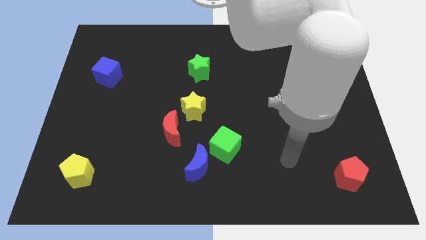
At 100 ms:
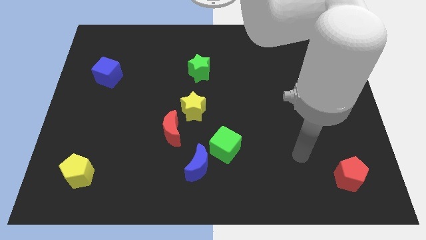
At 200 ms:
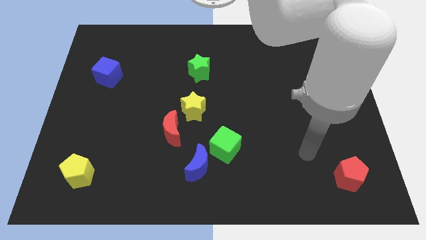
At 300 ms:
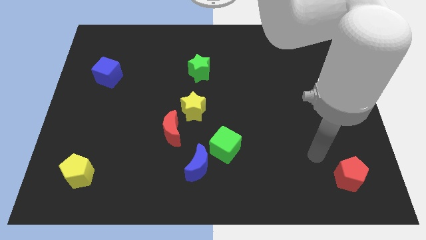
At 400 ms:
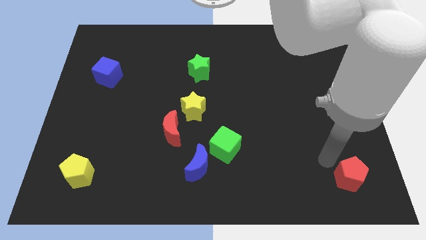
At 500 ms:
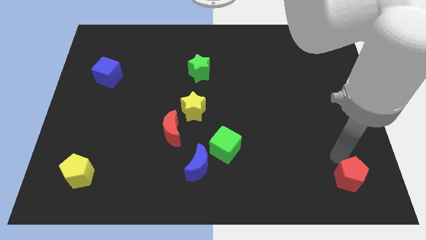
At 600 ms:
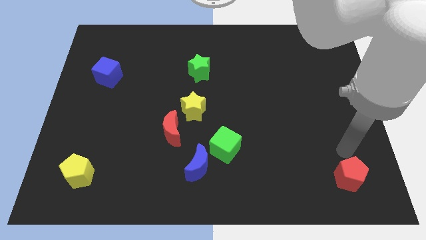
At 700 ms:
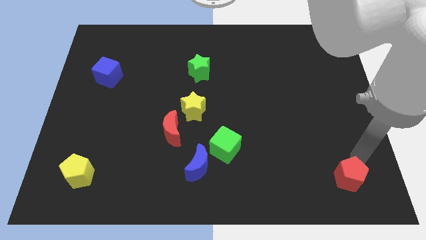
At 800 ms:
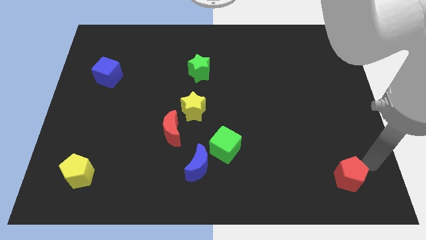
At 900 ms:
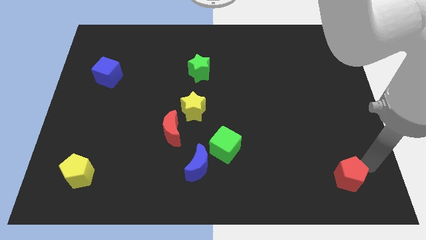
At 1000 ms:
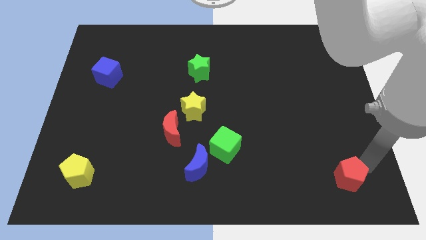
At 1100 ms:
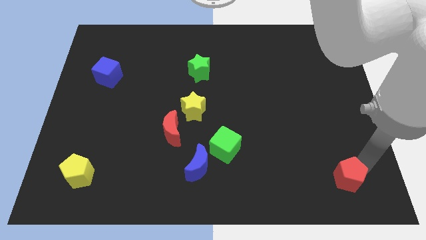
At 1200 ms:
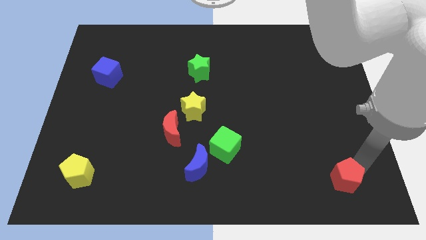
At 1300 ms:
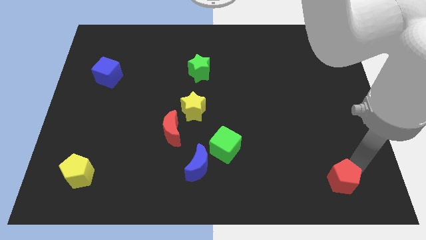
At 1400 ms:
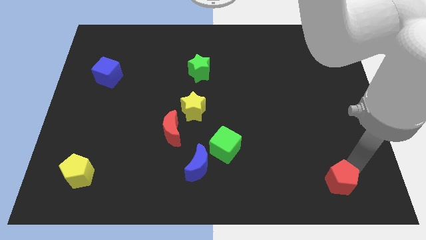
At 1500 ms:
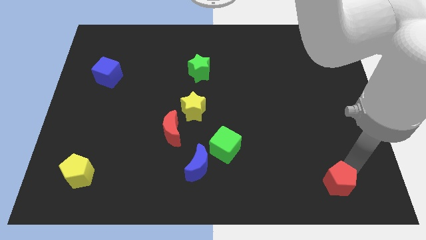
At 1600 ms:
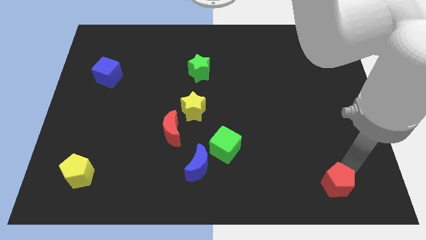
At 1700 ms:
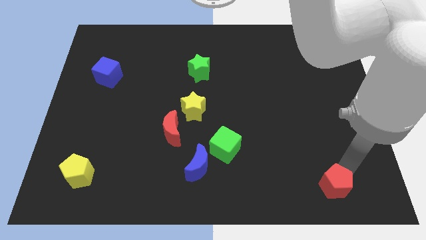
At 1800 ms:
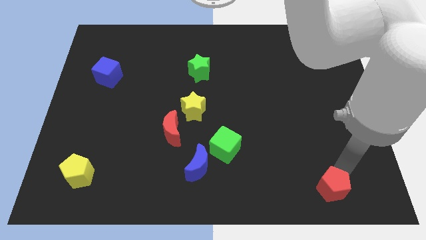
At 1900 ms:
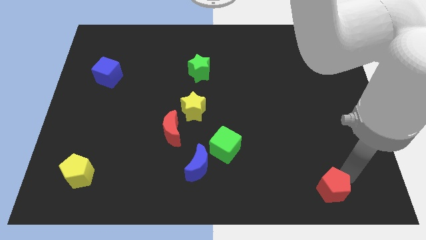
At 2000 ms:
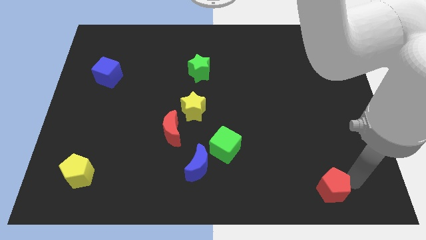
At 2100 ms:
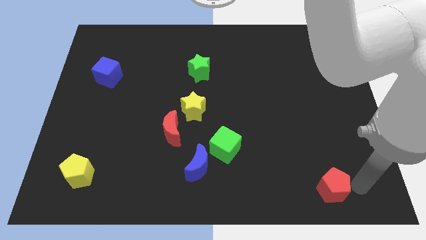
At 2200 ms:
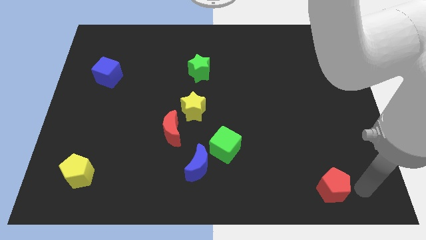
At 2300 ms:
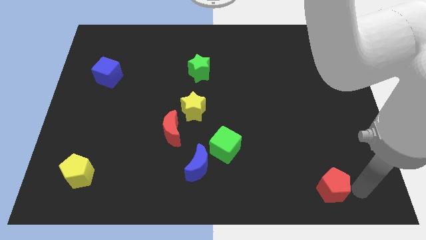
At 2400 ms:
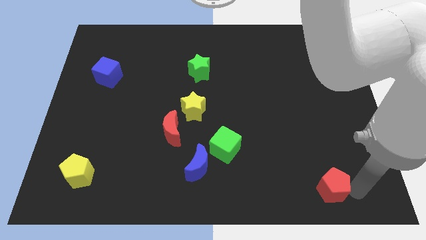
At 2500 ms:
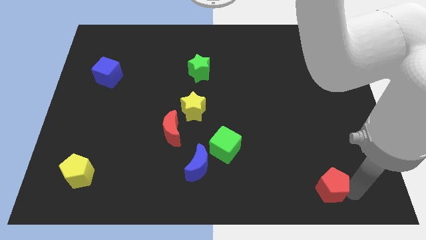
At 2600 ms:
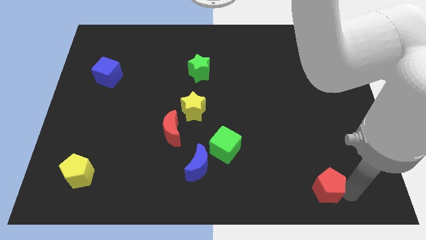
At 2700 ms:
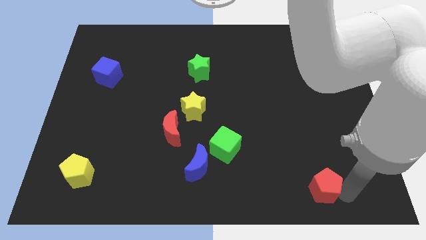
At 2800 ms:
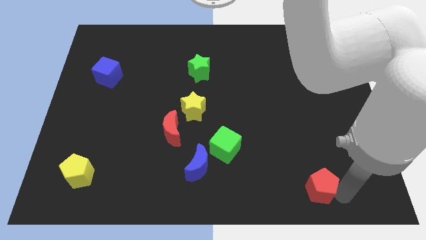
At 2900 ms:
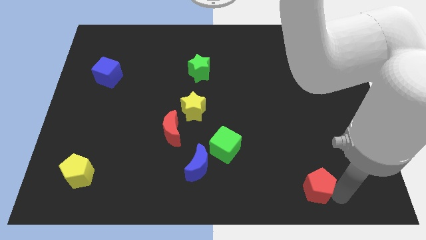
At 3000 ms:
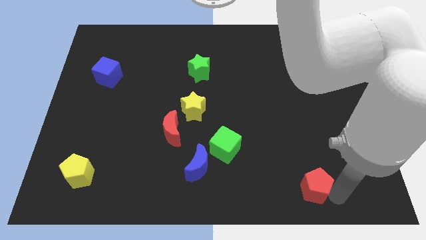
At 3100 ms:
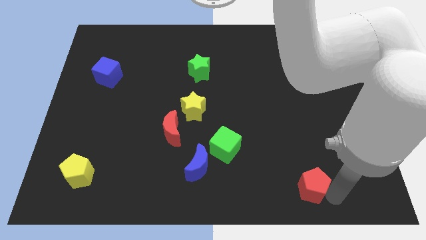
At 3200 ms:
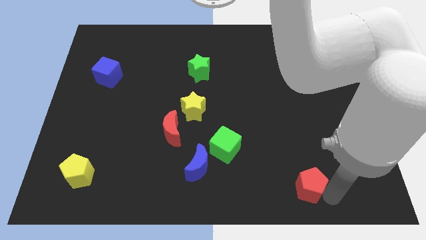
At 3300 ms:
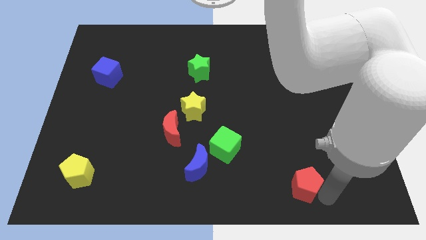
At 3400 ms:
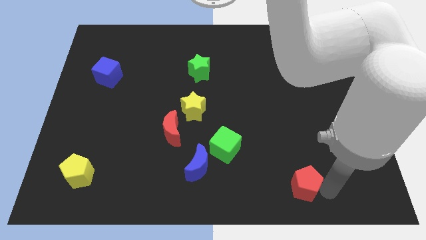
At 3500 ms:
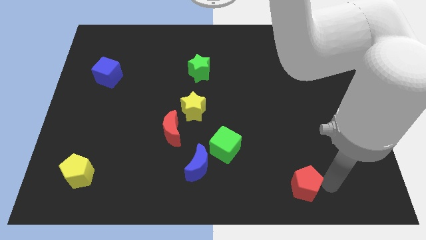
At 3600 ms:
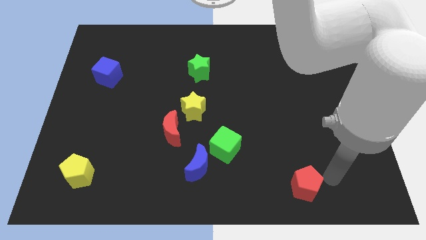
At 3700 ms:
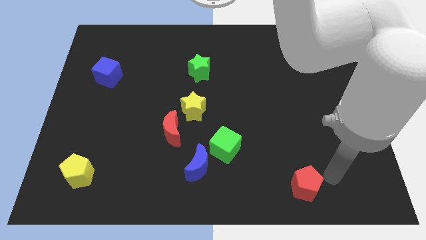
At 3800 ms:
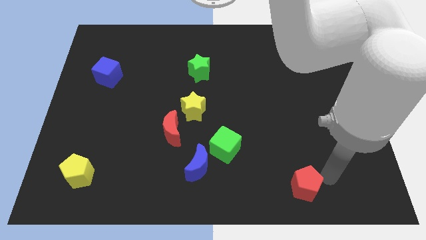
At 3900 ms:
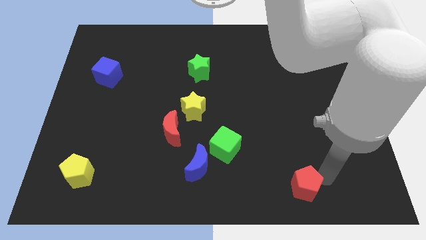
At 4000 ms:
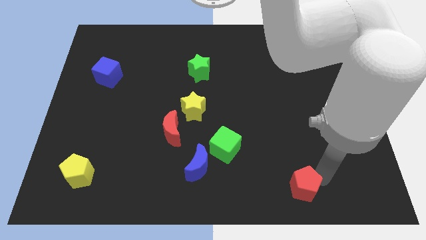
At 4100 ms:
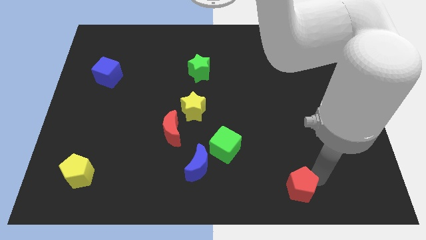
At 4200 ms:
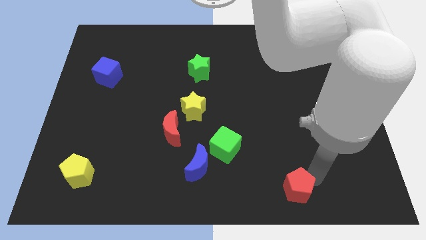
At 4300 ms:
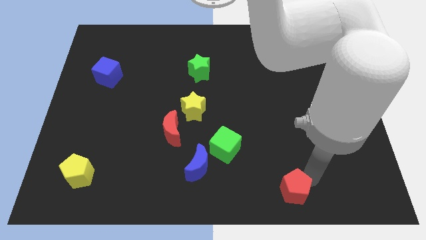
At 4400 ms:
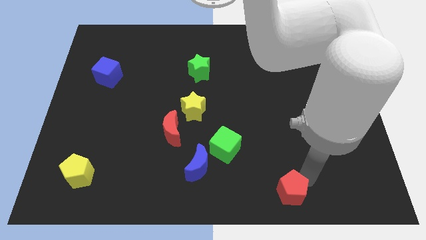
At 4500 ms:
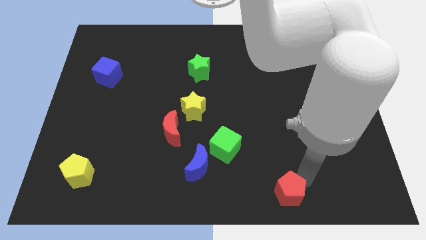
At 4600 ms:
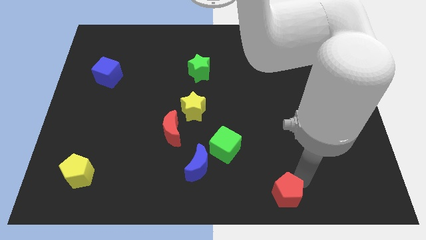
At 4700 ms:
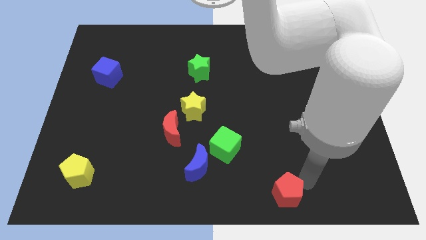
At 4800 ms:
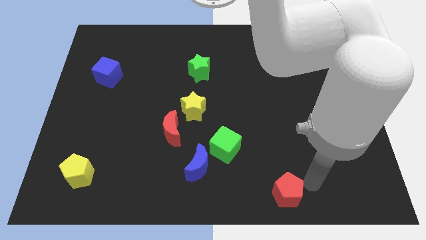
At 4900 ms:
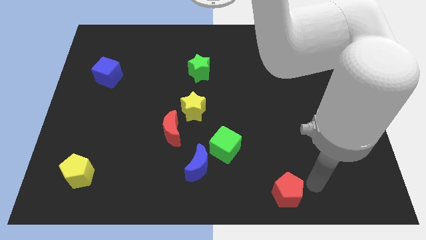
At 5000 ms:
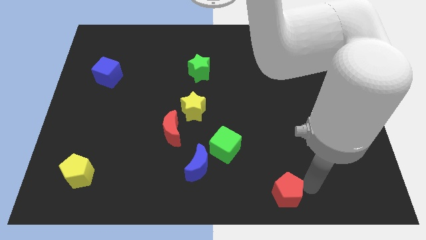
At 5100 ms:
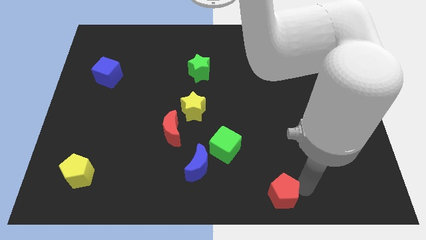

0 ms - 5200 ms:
put the red pentagon to the bottom

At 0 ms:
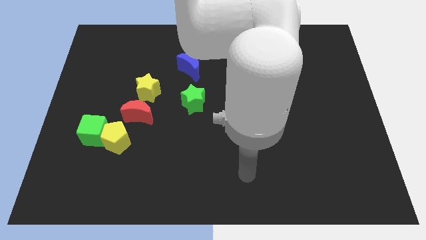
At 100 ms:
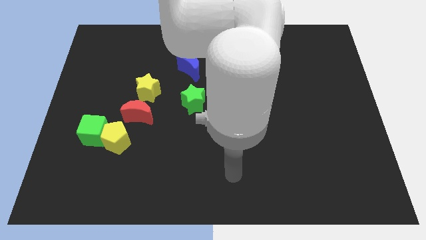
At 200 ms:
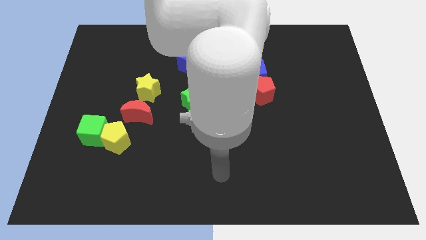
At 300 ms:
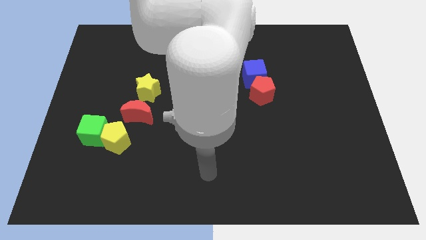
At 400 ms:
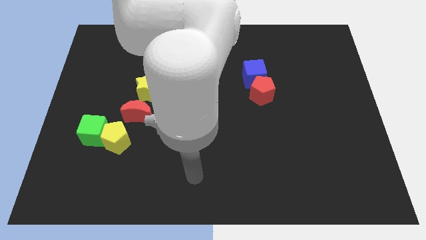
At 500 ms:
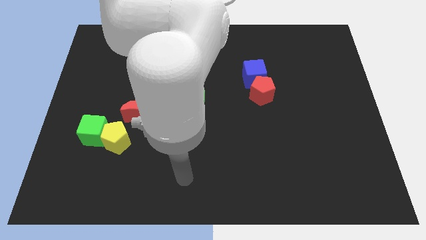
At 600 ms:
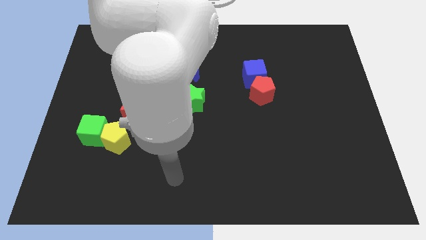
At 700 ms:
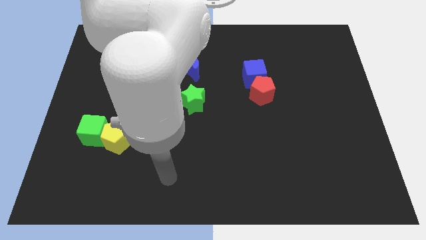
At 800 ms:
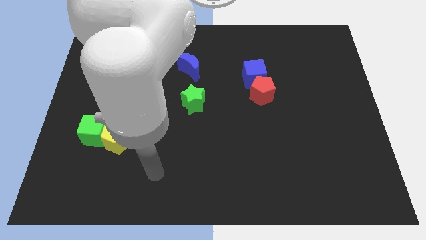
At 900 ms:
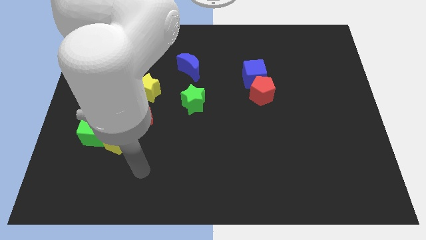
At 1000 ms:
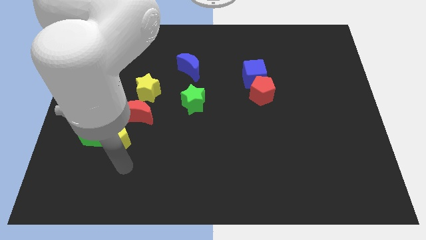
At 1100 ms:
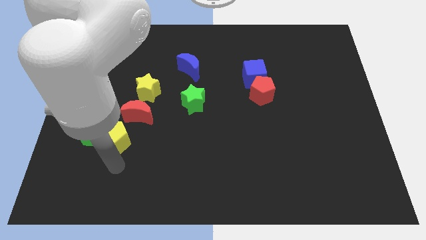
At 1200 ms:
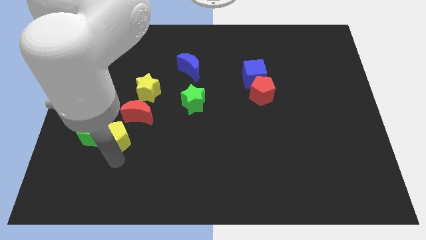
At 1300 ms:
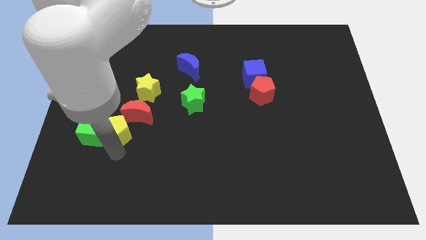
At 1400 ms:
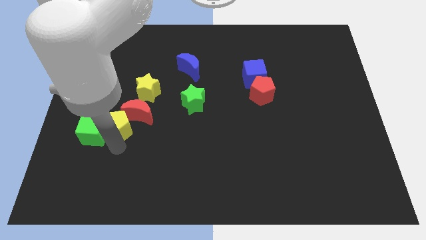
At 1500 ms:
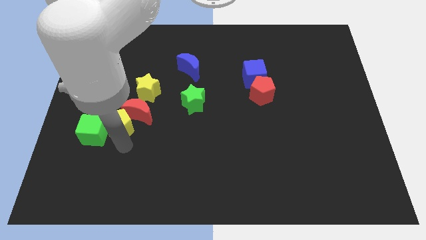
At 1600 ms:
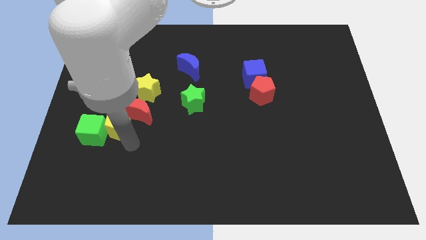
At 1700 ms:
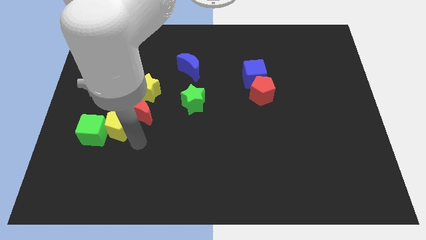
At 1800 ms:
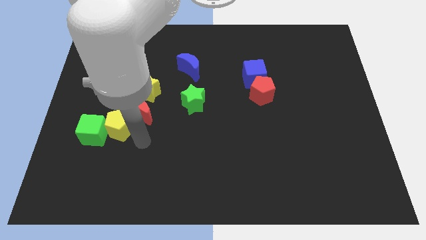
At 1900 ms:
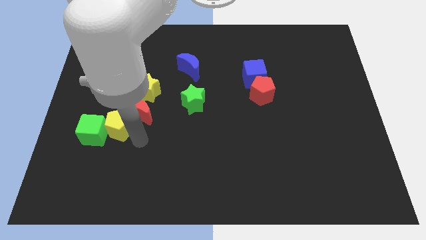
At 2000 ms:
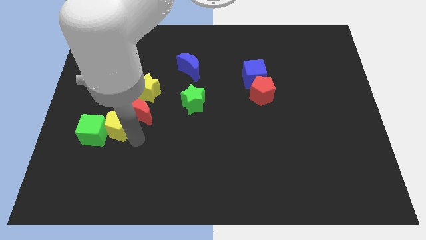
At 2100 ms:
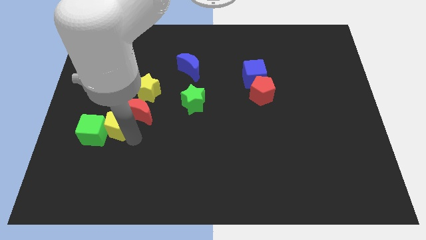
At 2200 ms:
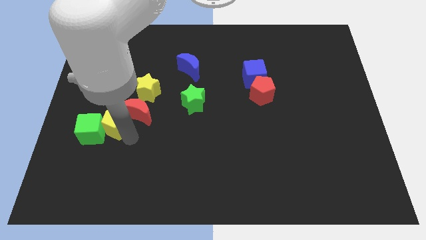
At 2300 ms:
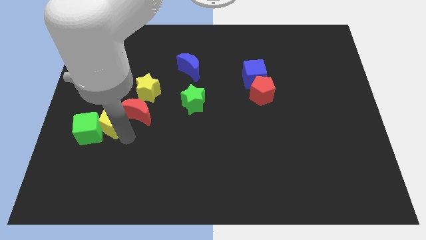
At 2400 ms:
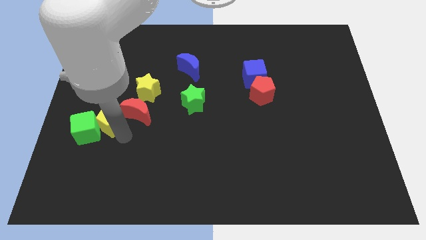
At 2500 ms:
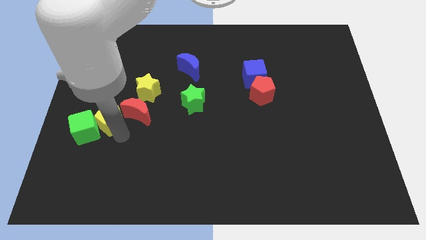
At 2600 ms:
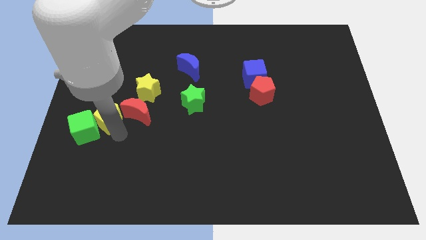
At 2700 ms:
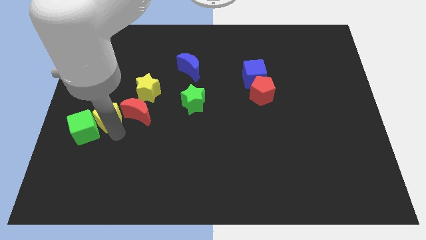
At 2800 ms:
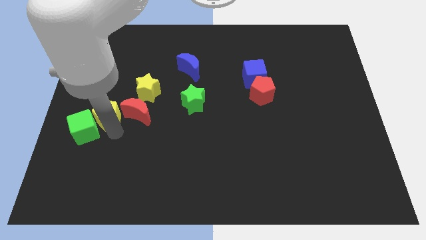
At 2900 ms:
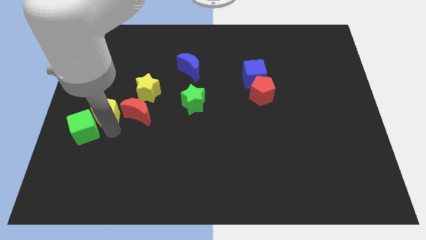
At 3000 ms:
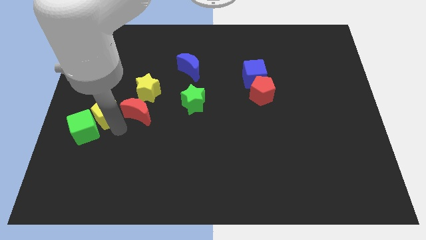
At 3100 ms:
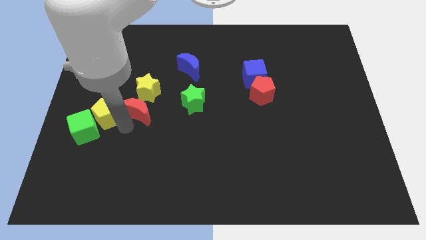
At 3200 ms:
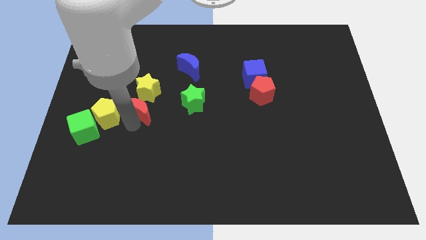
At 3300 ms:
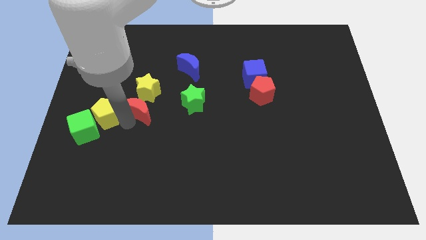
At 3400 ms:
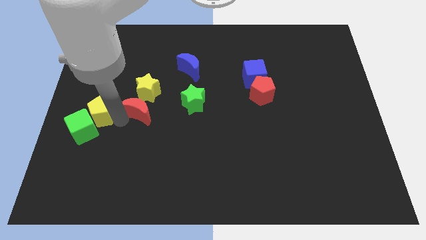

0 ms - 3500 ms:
push the yellow pentagon to the center left
